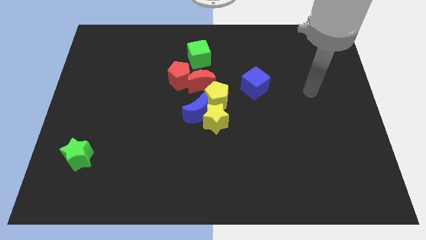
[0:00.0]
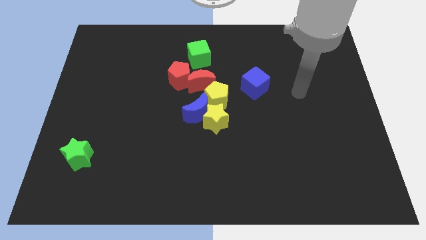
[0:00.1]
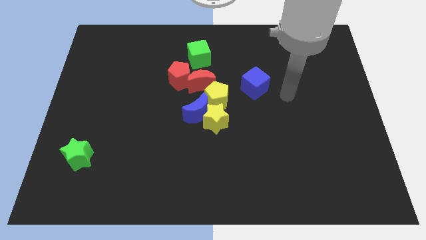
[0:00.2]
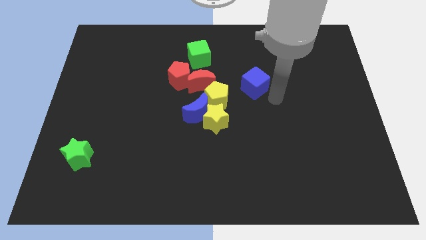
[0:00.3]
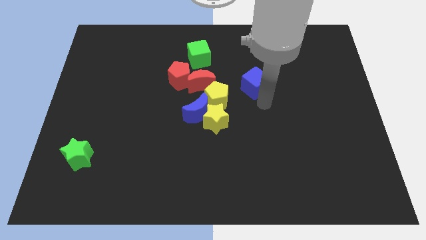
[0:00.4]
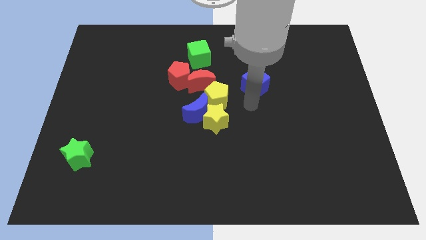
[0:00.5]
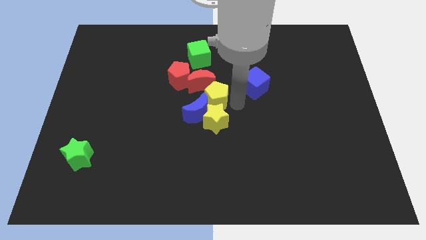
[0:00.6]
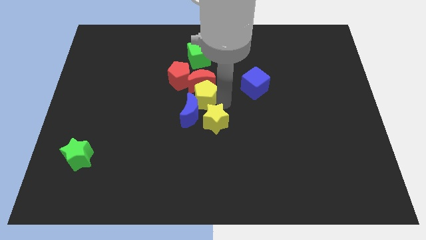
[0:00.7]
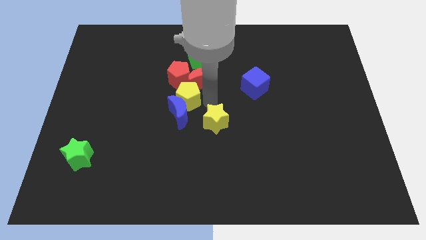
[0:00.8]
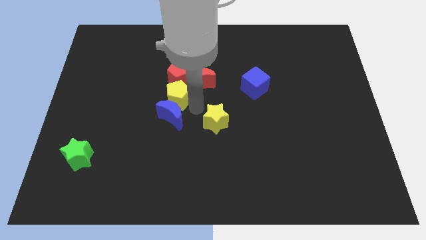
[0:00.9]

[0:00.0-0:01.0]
pull the yellow star apart from the blue moon and yellow pentagon

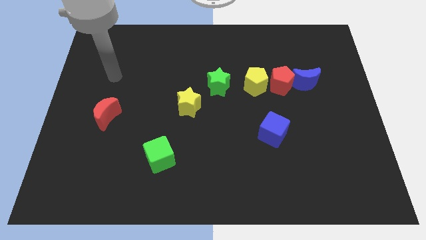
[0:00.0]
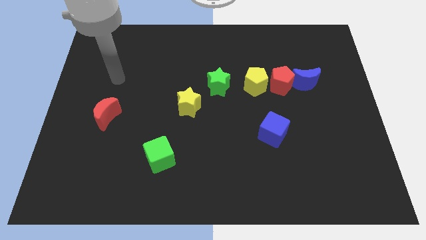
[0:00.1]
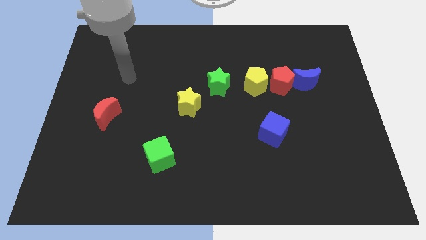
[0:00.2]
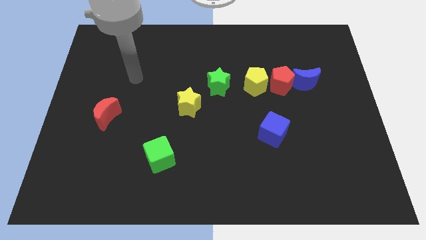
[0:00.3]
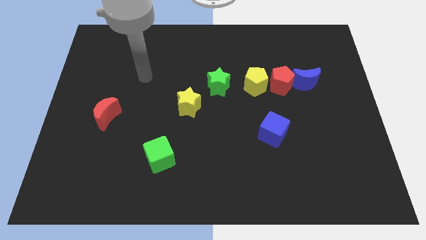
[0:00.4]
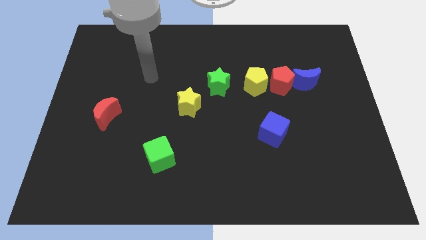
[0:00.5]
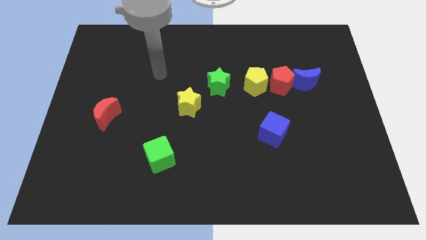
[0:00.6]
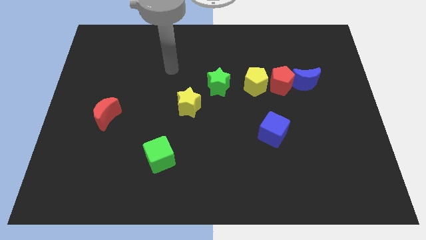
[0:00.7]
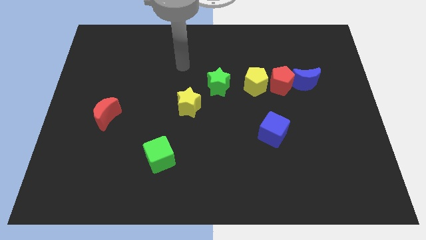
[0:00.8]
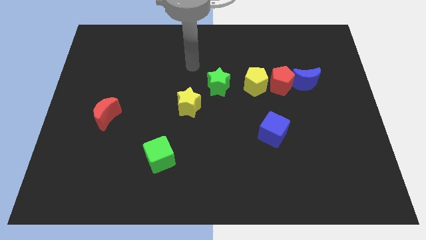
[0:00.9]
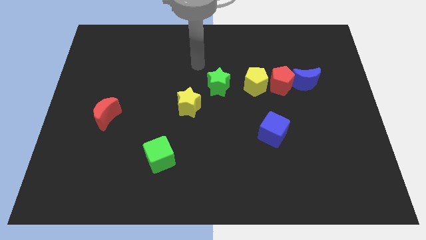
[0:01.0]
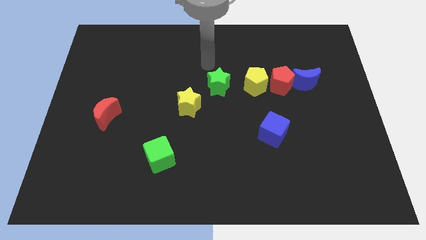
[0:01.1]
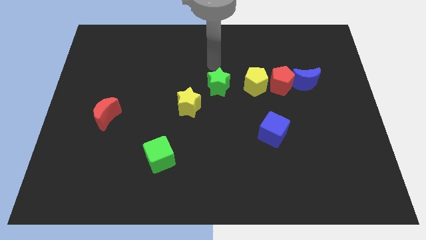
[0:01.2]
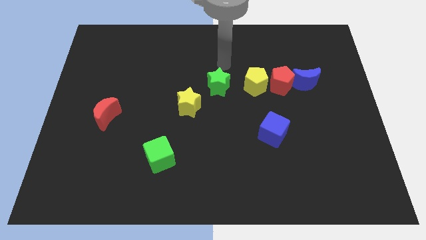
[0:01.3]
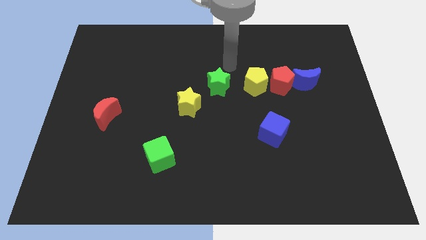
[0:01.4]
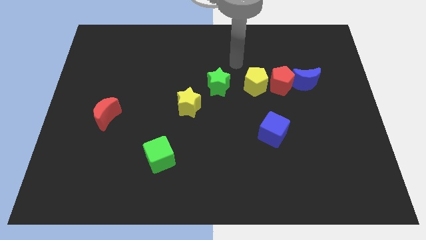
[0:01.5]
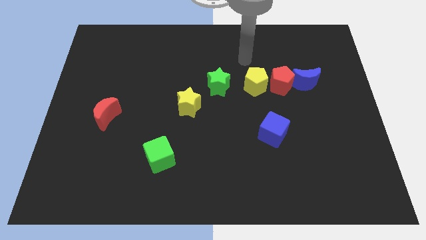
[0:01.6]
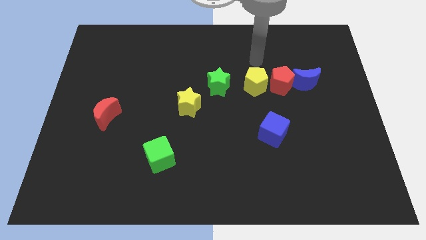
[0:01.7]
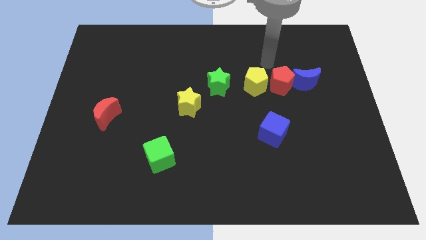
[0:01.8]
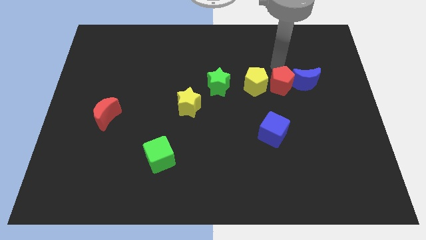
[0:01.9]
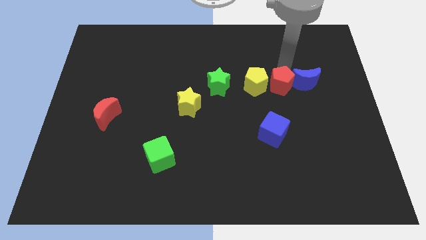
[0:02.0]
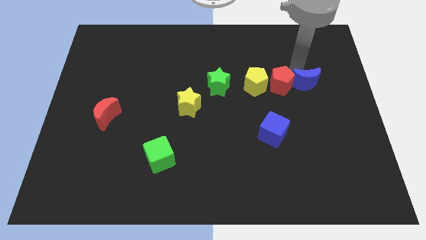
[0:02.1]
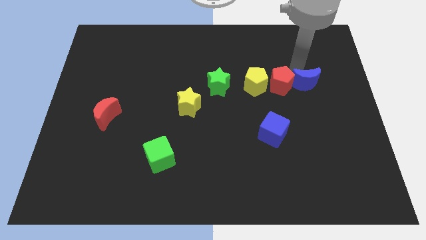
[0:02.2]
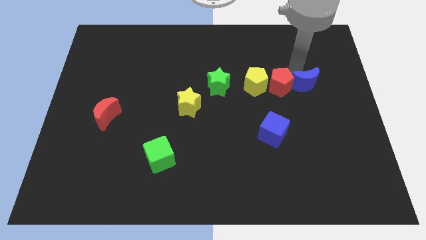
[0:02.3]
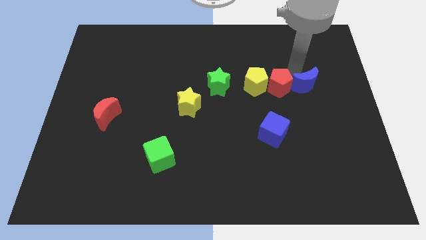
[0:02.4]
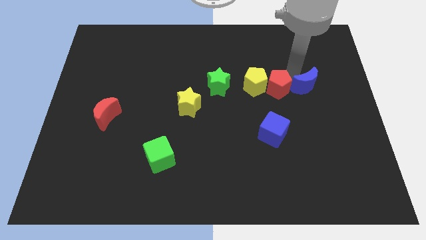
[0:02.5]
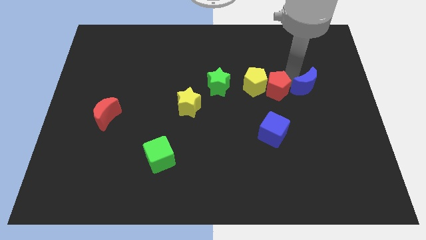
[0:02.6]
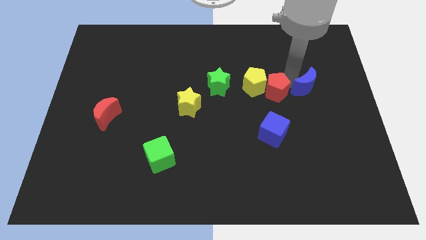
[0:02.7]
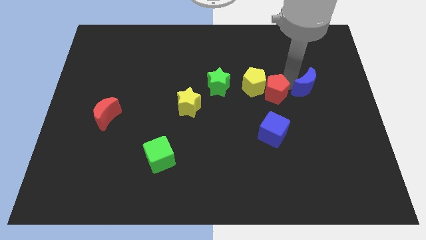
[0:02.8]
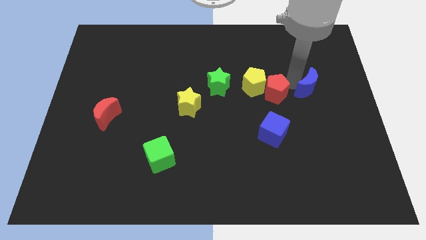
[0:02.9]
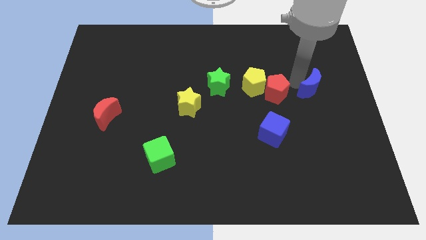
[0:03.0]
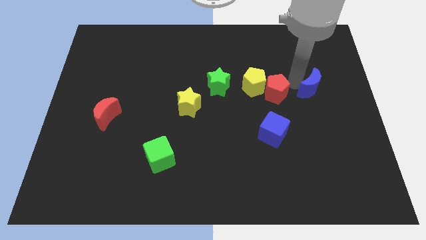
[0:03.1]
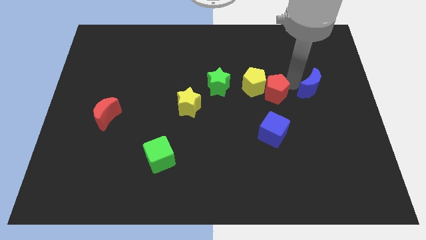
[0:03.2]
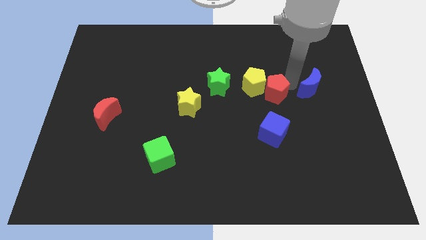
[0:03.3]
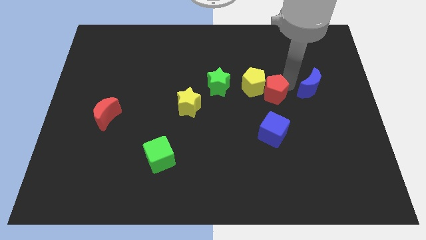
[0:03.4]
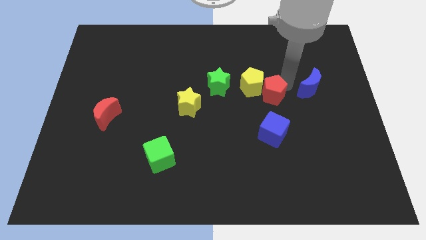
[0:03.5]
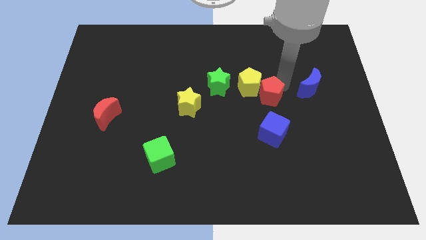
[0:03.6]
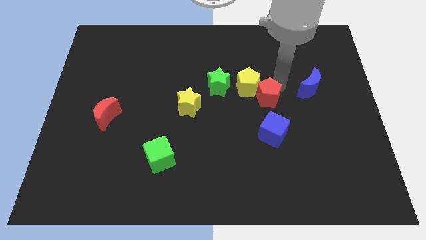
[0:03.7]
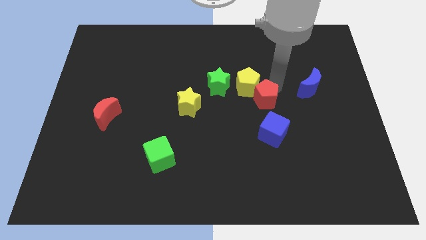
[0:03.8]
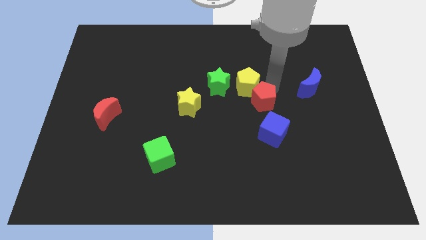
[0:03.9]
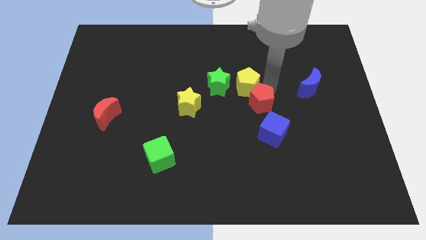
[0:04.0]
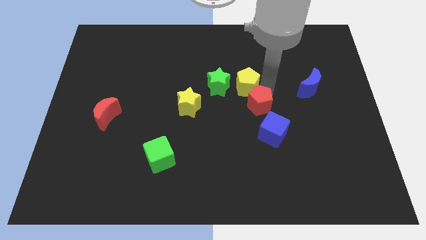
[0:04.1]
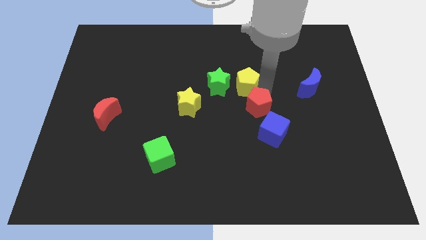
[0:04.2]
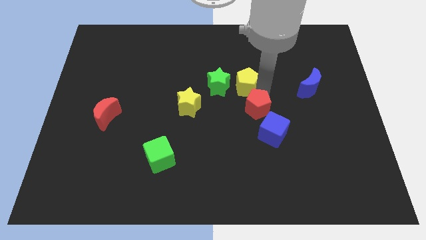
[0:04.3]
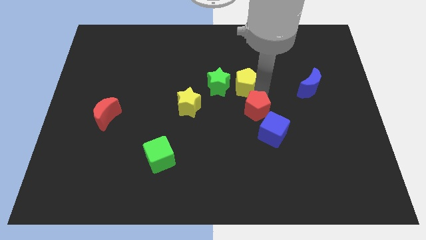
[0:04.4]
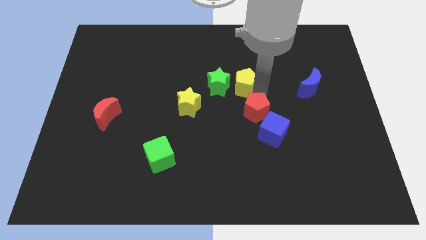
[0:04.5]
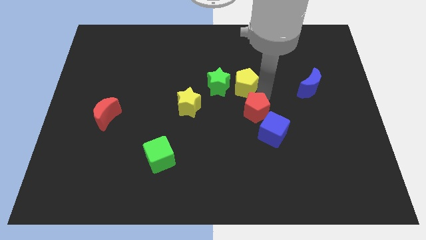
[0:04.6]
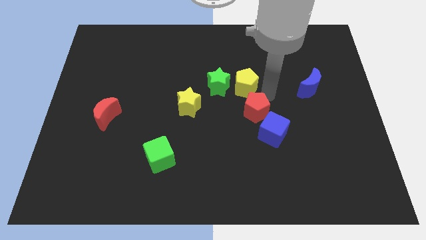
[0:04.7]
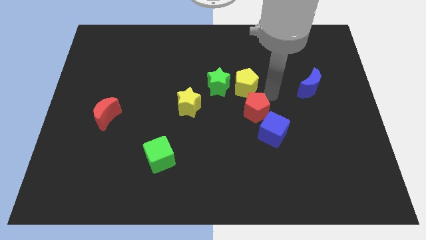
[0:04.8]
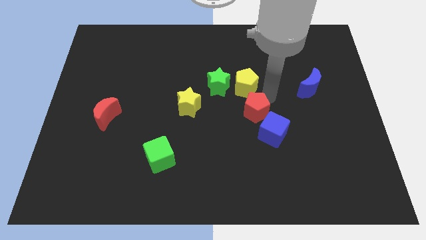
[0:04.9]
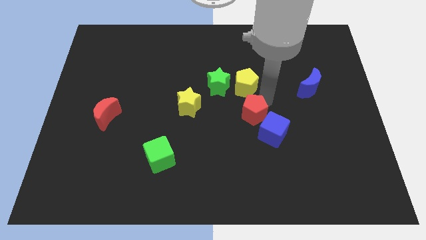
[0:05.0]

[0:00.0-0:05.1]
separate the red pentagon from the yellow pentagon and blue moon

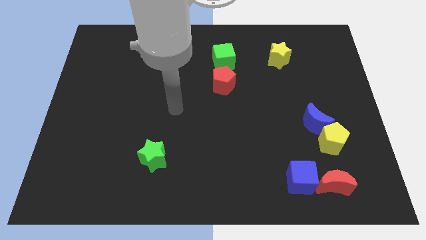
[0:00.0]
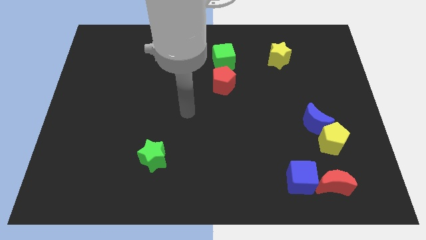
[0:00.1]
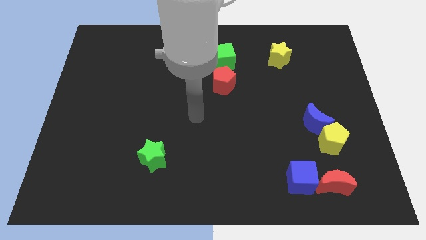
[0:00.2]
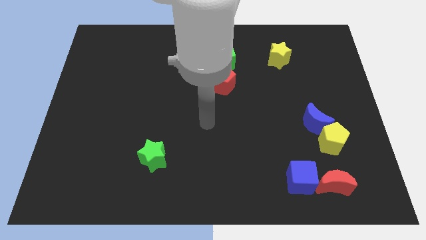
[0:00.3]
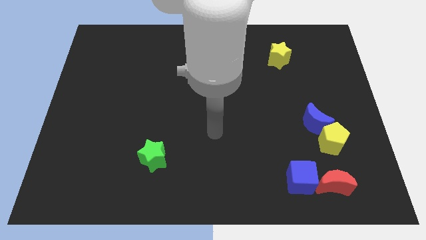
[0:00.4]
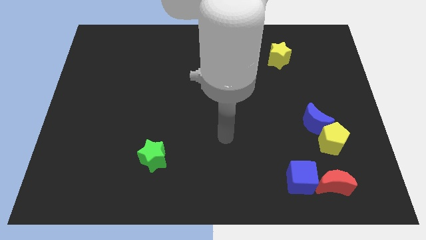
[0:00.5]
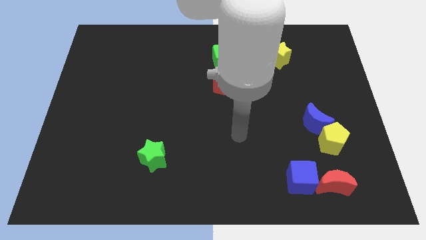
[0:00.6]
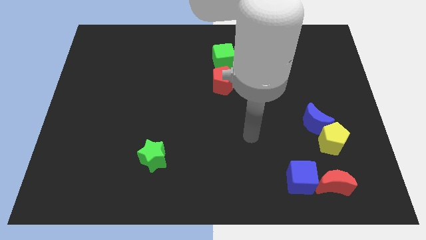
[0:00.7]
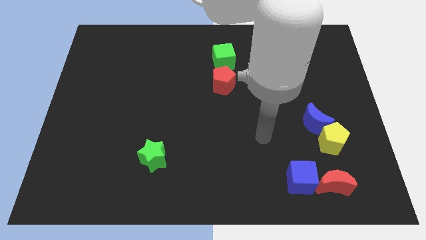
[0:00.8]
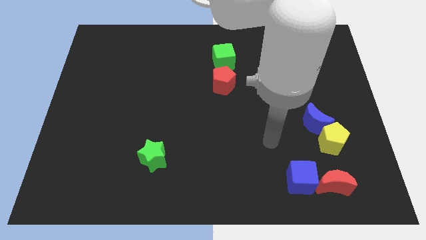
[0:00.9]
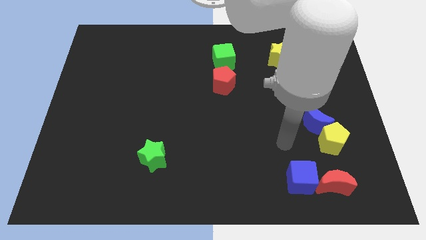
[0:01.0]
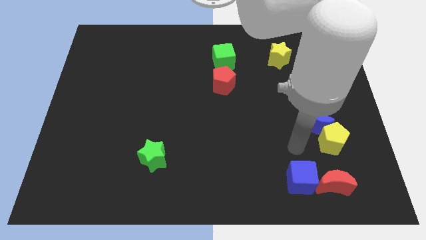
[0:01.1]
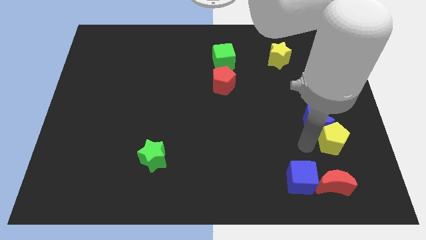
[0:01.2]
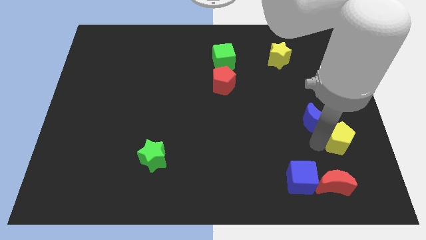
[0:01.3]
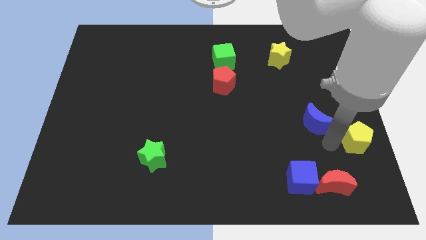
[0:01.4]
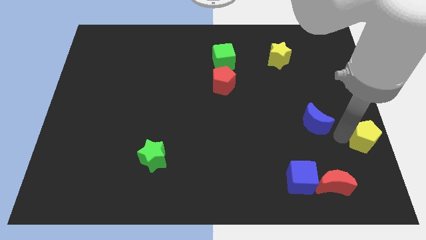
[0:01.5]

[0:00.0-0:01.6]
pull the blue moon apart from the yellow pentagon

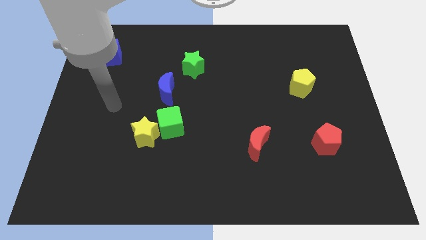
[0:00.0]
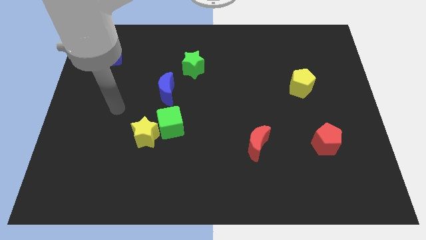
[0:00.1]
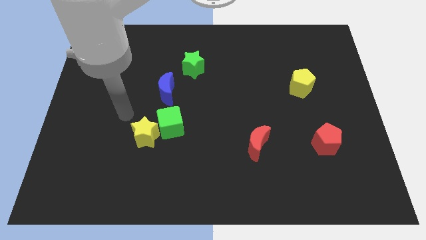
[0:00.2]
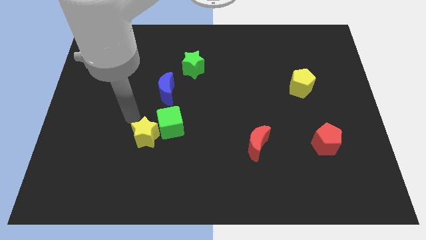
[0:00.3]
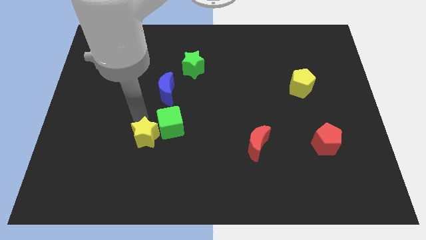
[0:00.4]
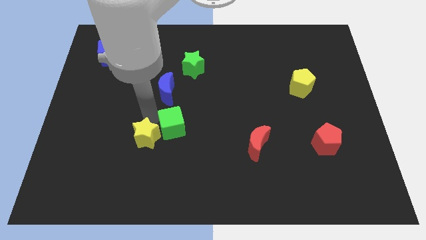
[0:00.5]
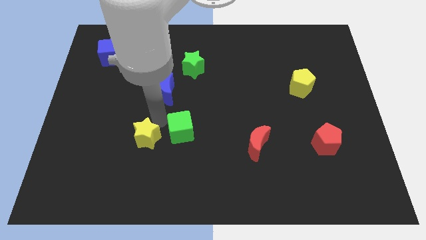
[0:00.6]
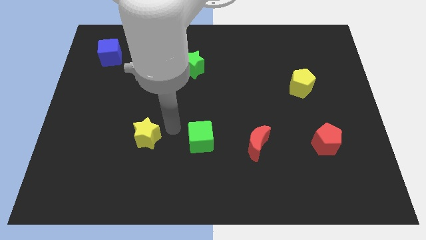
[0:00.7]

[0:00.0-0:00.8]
move the yellow star away from the green cube

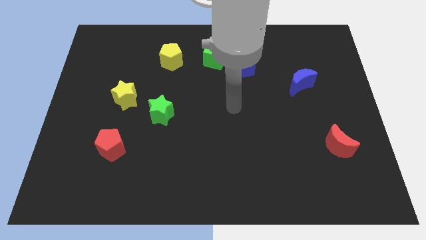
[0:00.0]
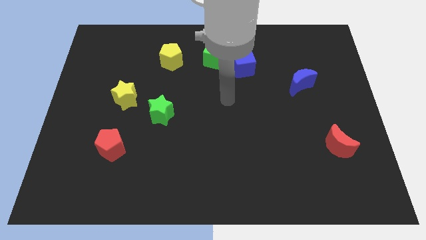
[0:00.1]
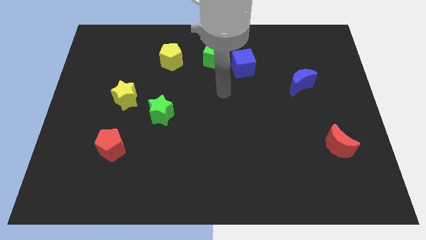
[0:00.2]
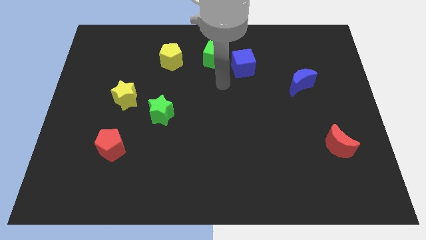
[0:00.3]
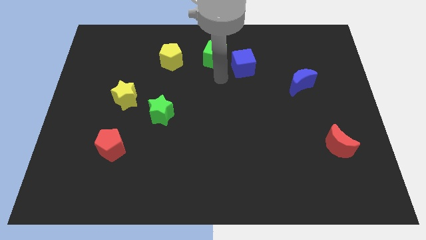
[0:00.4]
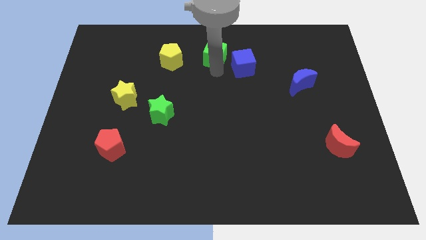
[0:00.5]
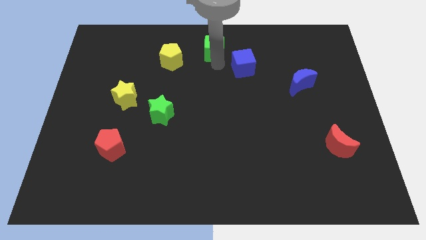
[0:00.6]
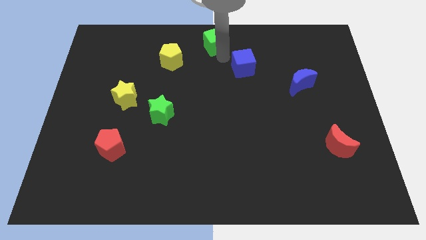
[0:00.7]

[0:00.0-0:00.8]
move the blue cube away from the green cube
